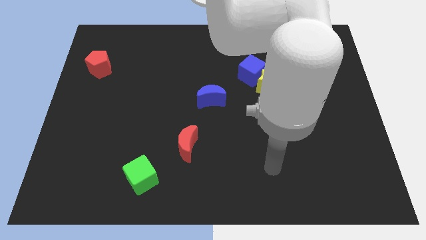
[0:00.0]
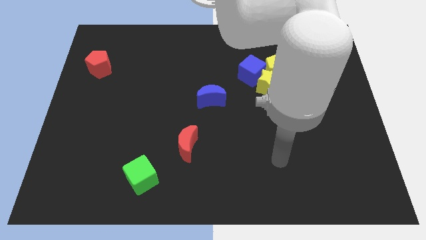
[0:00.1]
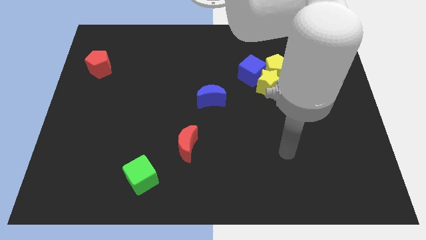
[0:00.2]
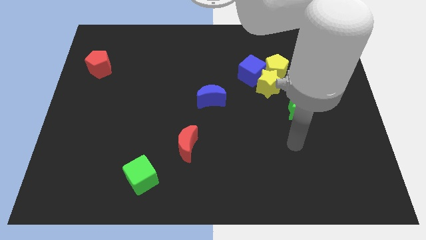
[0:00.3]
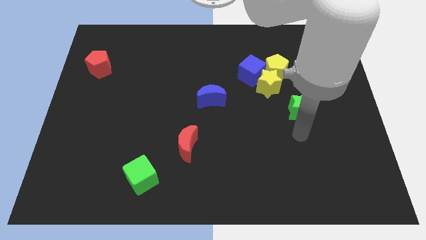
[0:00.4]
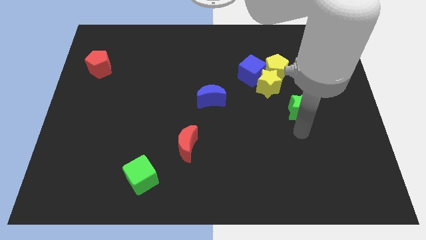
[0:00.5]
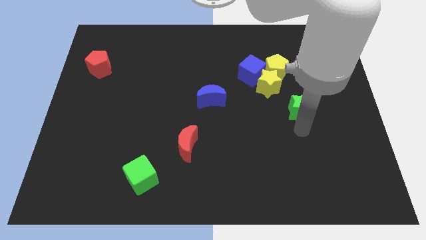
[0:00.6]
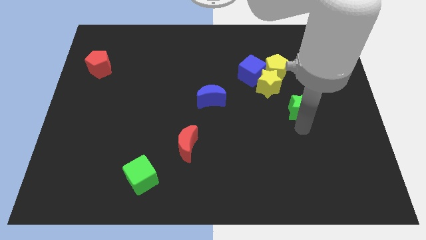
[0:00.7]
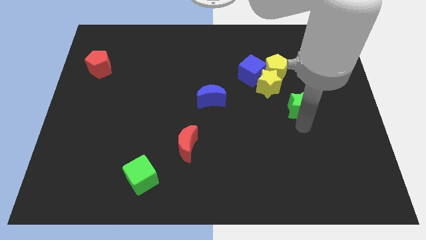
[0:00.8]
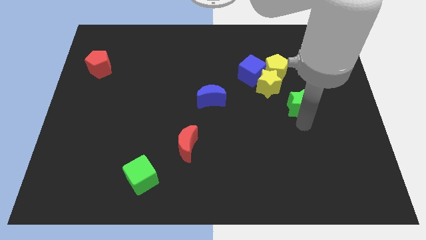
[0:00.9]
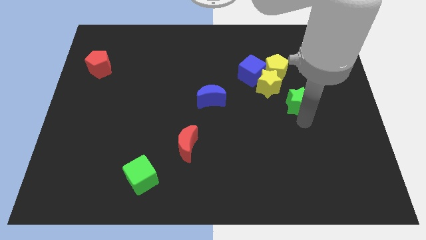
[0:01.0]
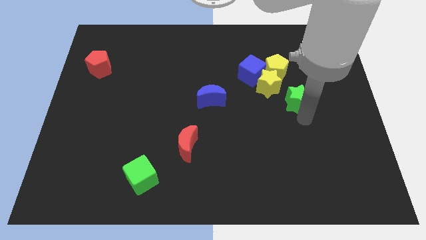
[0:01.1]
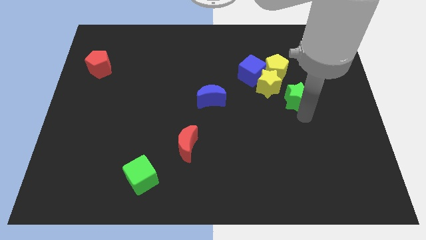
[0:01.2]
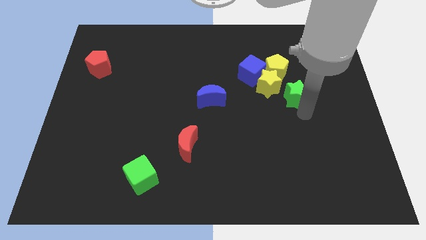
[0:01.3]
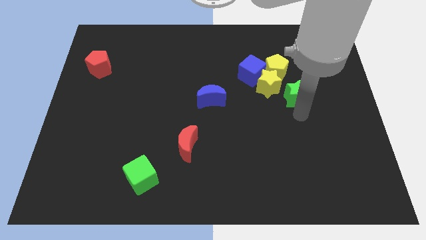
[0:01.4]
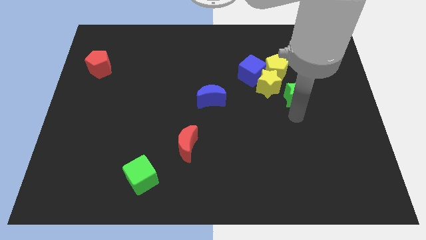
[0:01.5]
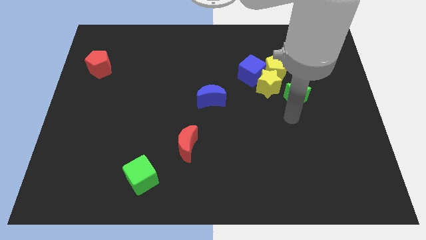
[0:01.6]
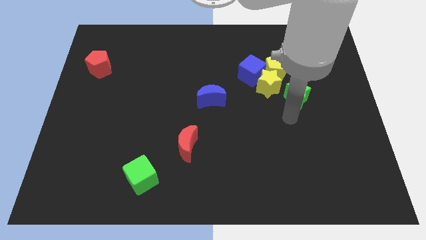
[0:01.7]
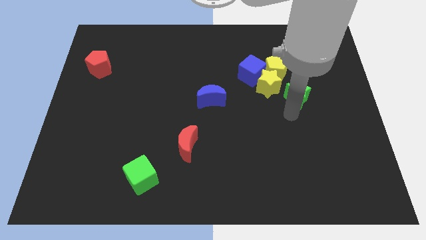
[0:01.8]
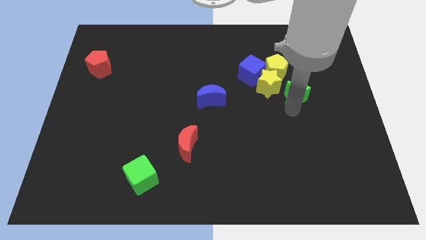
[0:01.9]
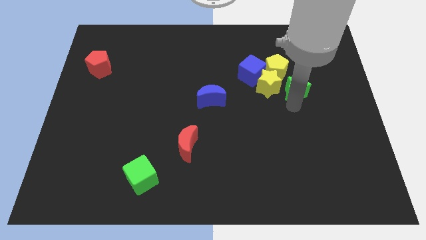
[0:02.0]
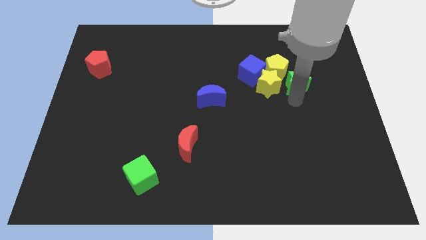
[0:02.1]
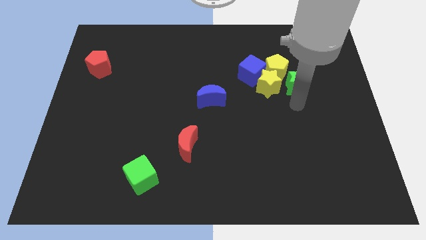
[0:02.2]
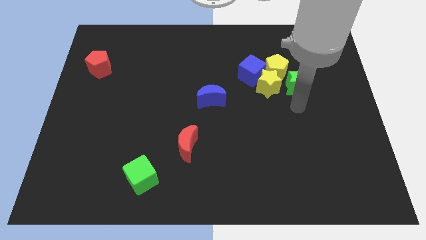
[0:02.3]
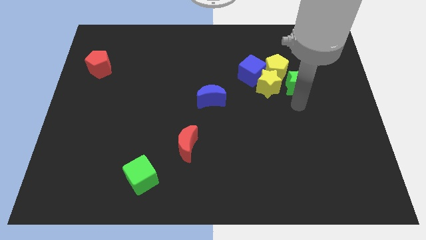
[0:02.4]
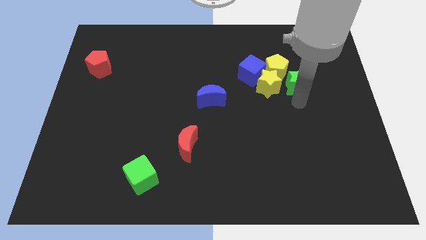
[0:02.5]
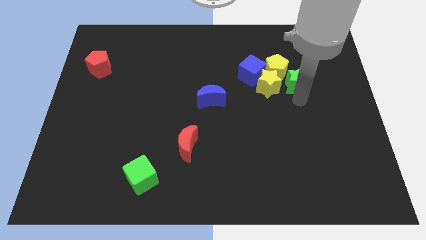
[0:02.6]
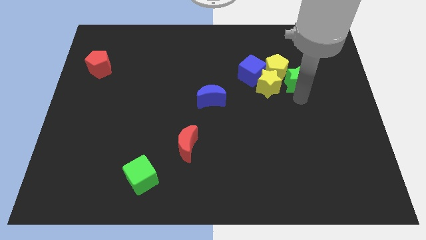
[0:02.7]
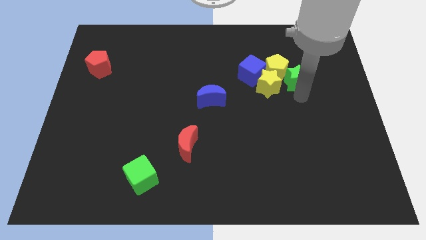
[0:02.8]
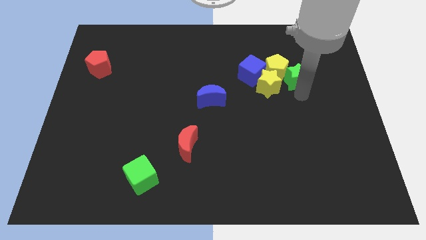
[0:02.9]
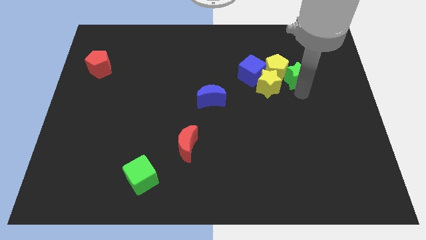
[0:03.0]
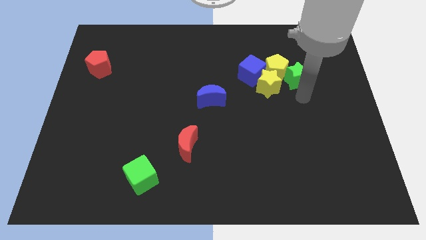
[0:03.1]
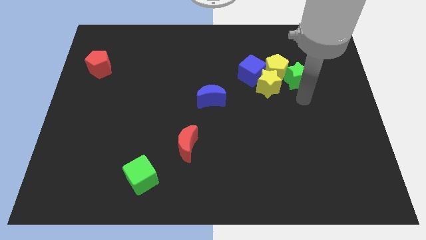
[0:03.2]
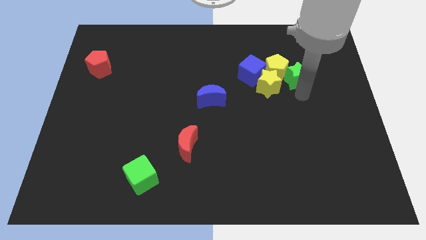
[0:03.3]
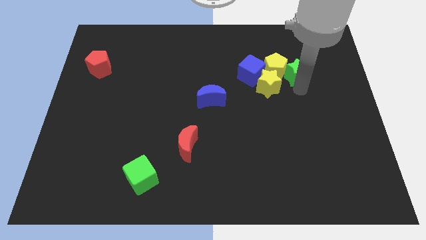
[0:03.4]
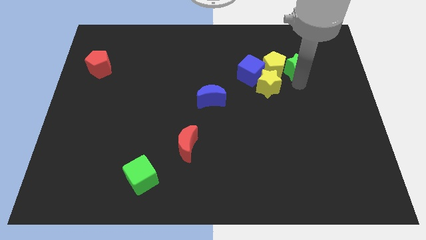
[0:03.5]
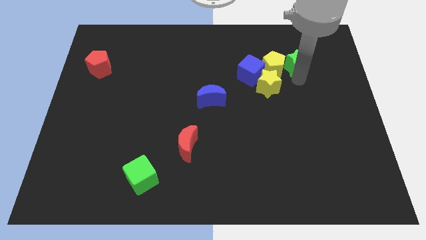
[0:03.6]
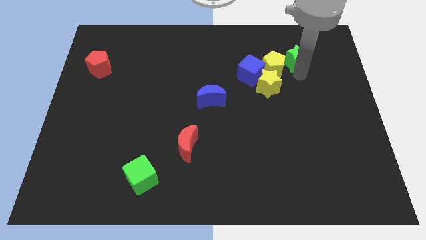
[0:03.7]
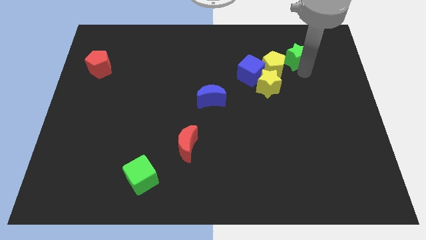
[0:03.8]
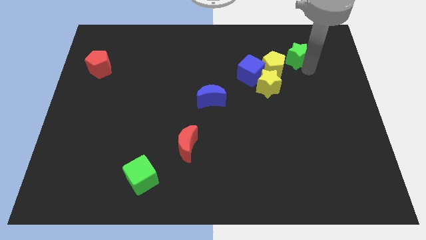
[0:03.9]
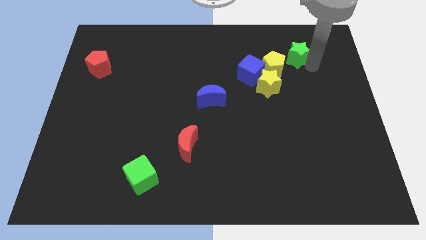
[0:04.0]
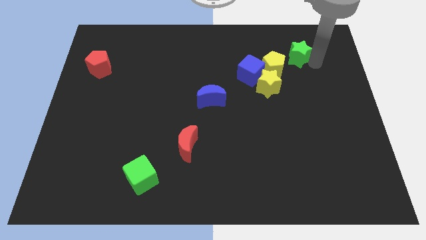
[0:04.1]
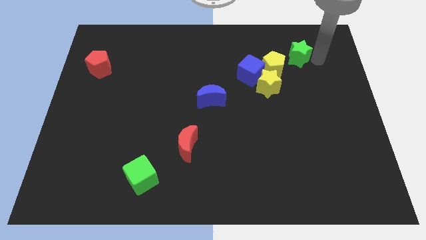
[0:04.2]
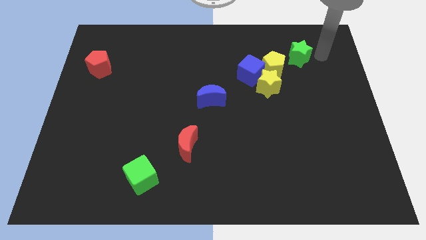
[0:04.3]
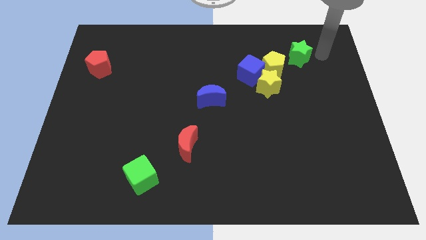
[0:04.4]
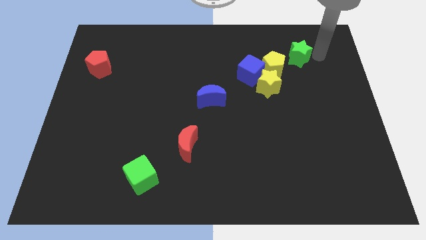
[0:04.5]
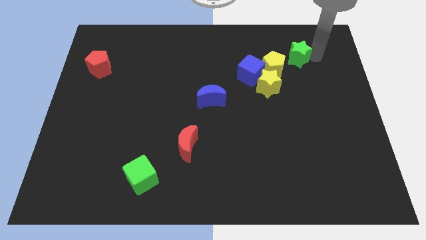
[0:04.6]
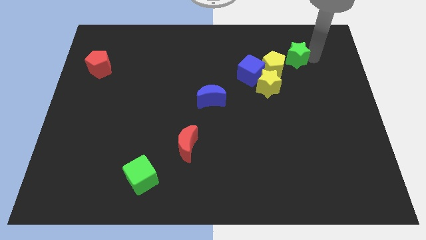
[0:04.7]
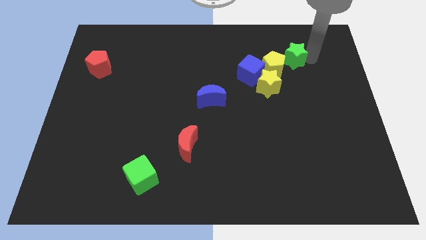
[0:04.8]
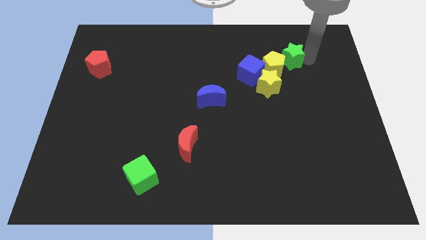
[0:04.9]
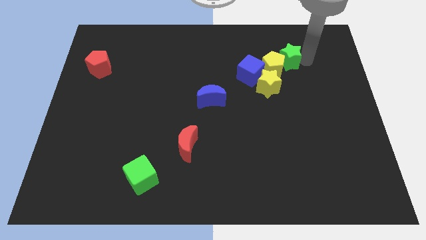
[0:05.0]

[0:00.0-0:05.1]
push the green star diagonally up and to the right of the blue cube

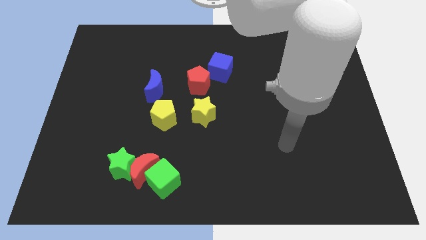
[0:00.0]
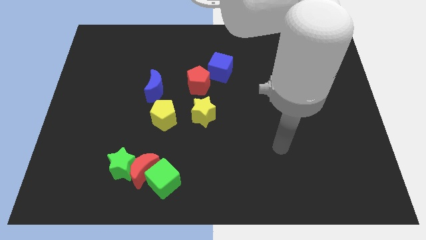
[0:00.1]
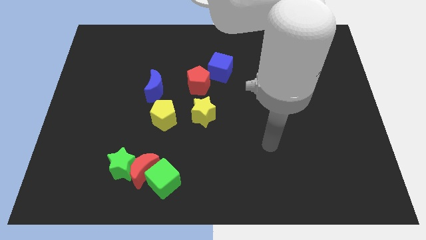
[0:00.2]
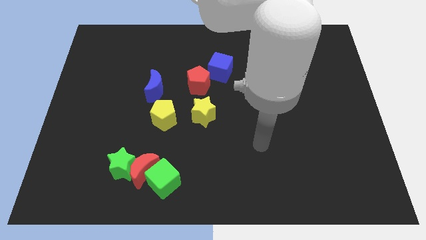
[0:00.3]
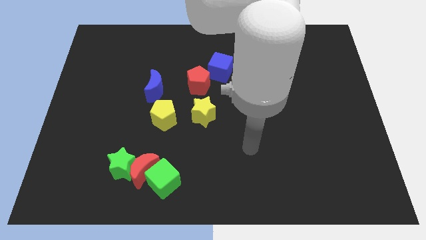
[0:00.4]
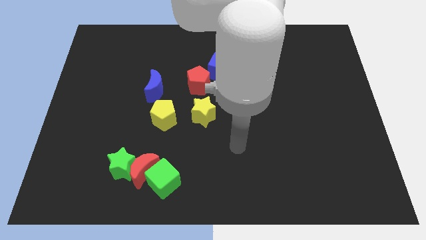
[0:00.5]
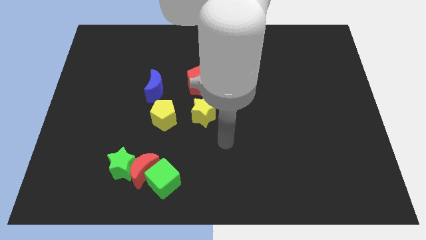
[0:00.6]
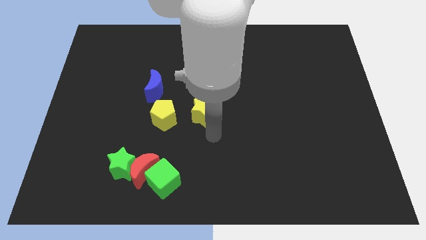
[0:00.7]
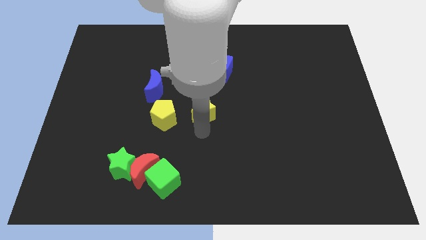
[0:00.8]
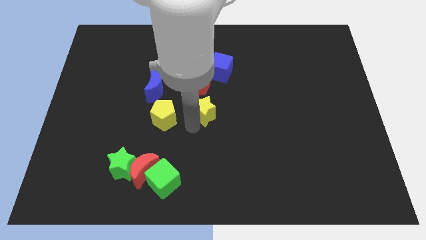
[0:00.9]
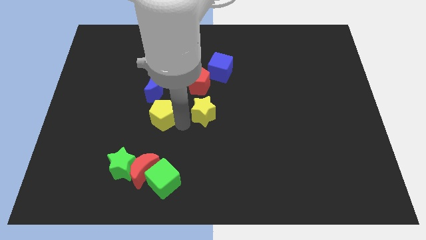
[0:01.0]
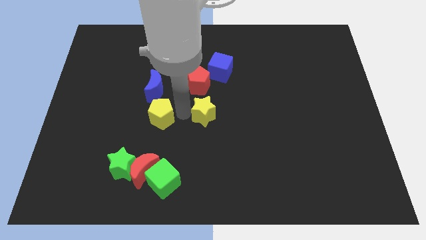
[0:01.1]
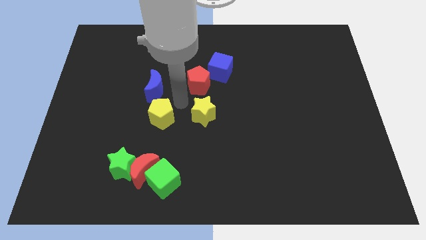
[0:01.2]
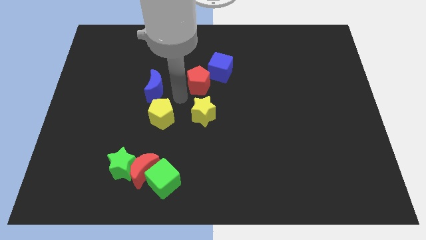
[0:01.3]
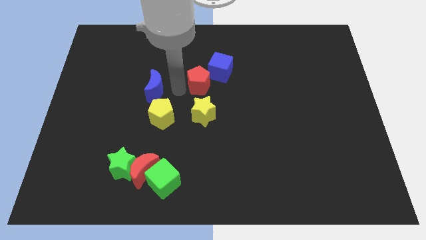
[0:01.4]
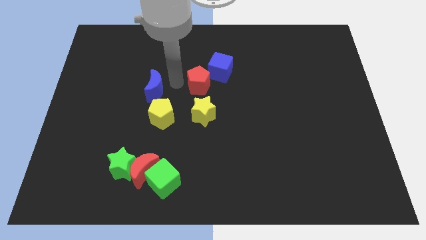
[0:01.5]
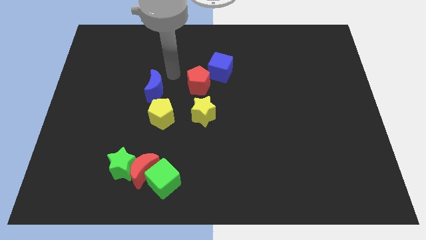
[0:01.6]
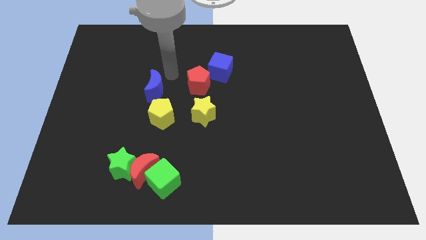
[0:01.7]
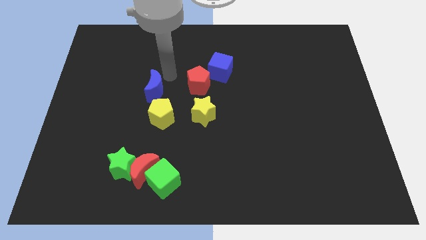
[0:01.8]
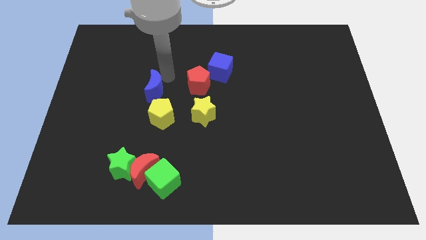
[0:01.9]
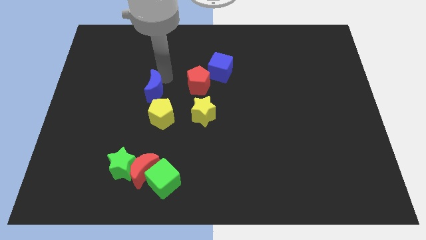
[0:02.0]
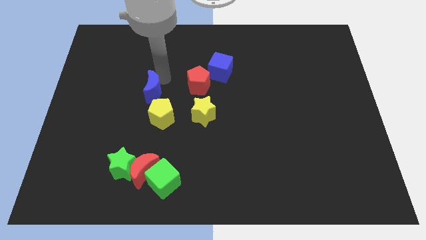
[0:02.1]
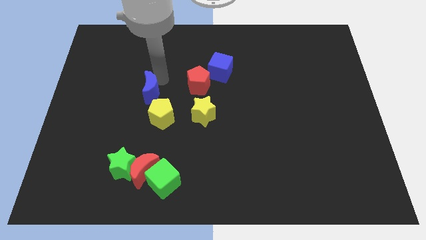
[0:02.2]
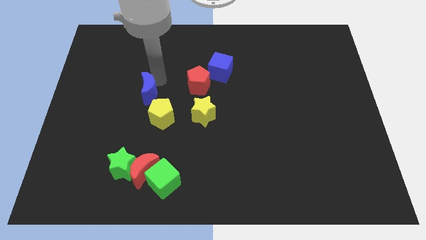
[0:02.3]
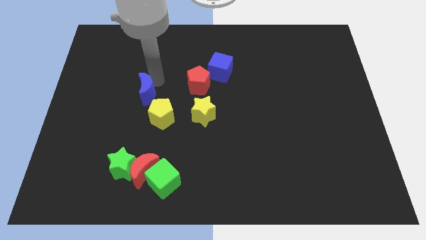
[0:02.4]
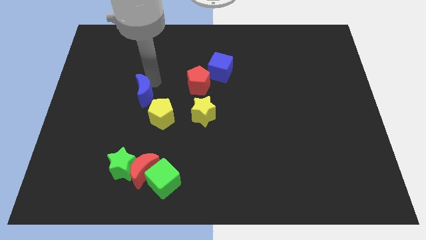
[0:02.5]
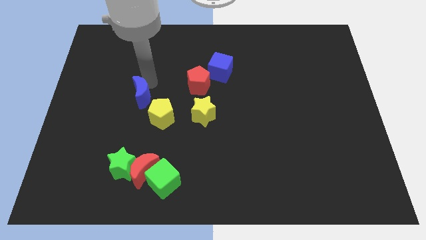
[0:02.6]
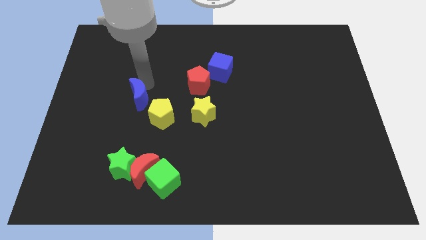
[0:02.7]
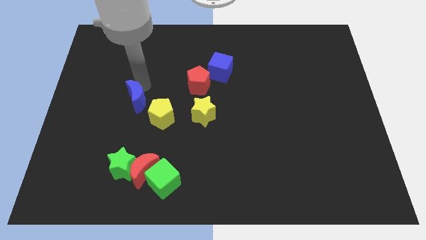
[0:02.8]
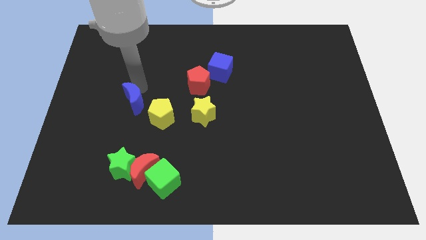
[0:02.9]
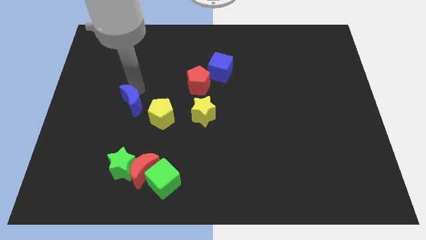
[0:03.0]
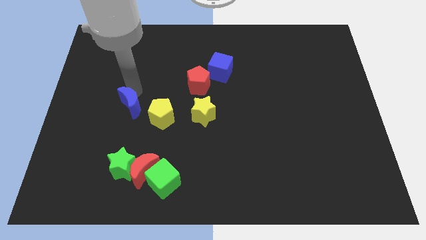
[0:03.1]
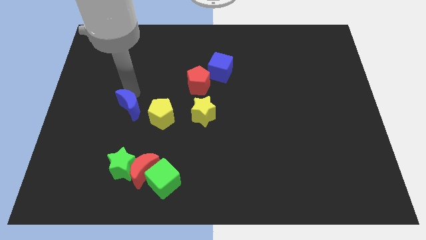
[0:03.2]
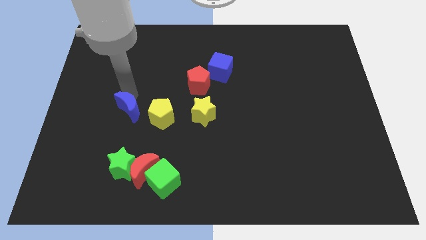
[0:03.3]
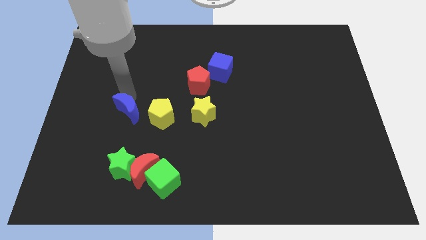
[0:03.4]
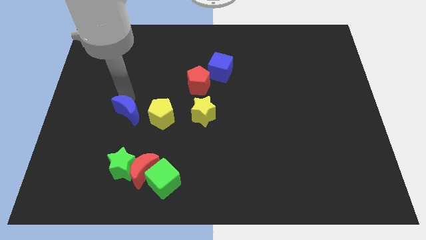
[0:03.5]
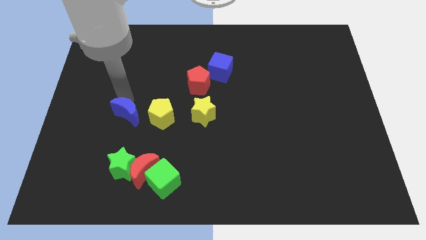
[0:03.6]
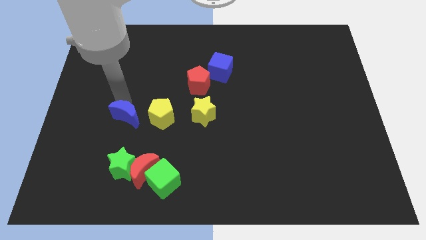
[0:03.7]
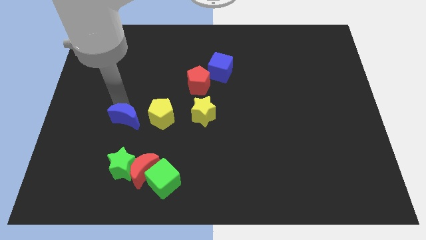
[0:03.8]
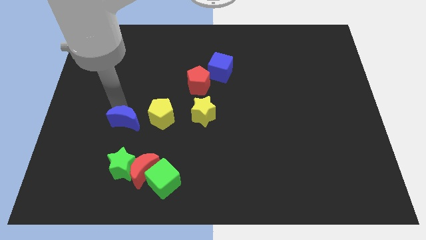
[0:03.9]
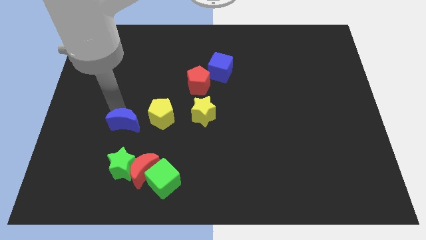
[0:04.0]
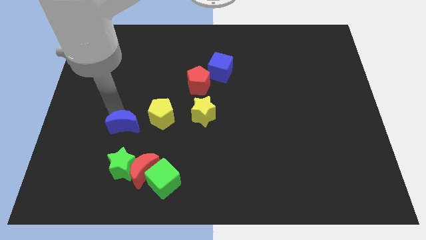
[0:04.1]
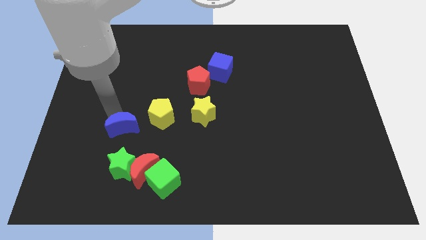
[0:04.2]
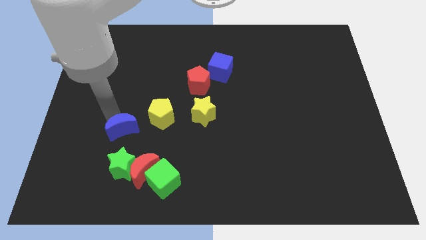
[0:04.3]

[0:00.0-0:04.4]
put the blue moon diagonally up and to the left of the red moon
